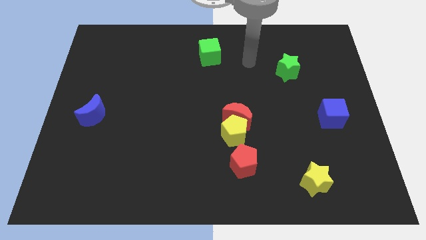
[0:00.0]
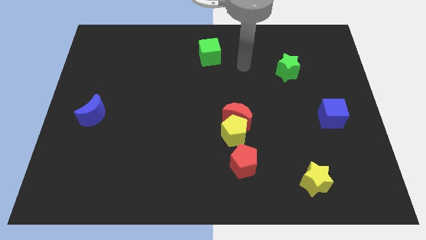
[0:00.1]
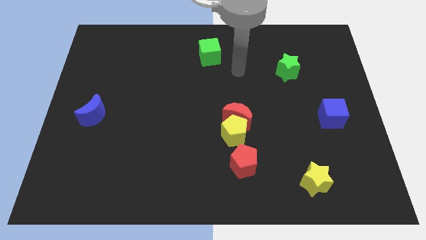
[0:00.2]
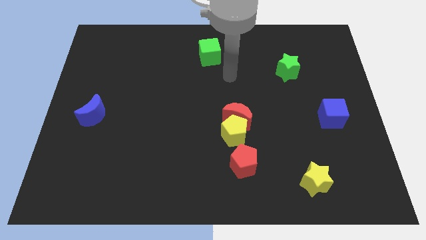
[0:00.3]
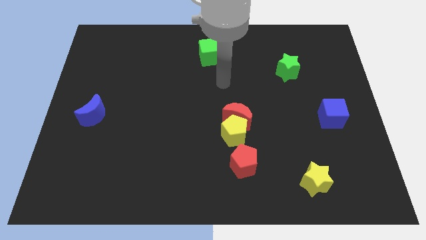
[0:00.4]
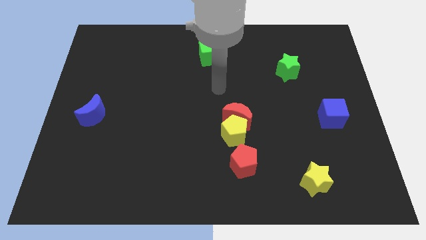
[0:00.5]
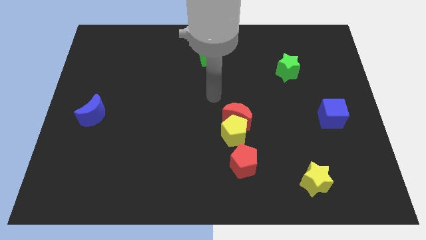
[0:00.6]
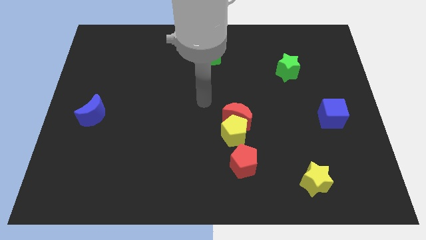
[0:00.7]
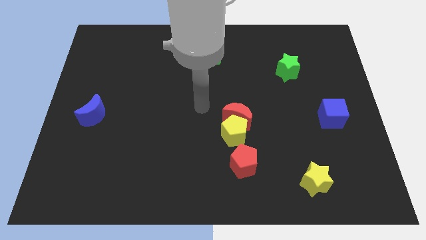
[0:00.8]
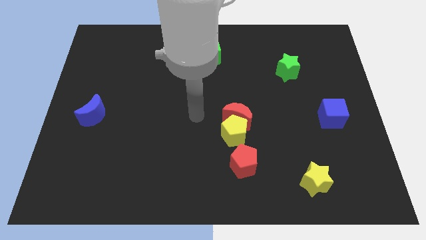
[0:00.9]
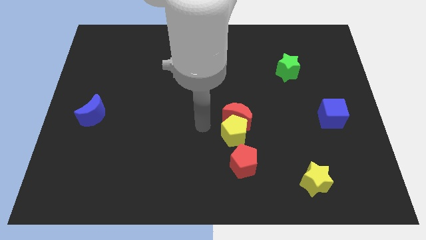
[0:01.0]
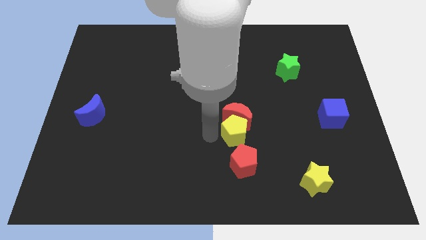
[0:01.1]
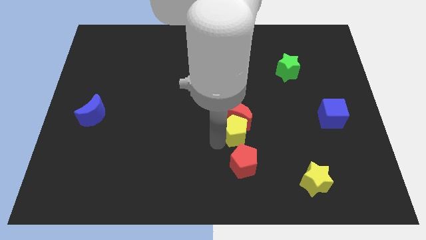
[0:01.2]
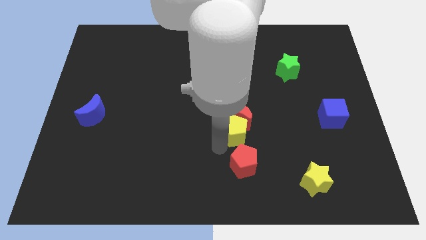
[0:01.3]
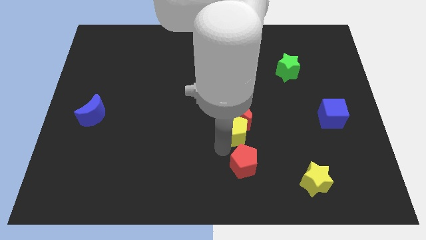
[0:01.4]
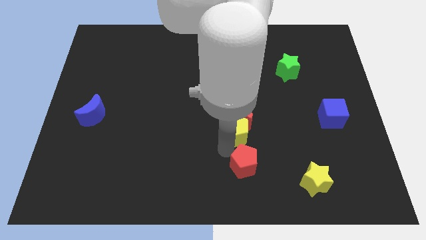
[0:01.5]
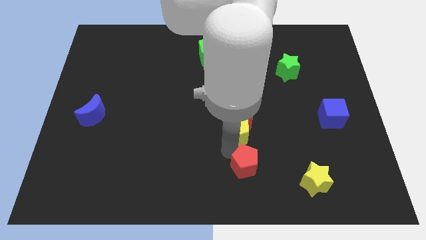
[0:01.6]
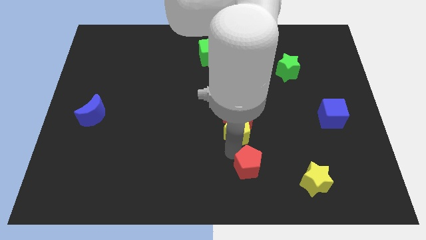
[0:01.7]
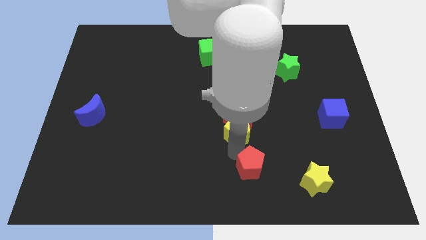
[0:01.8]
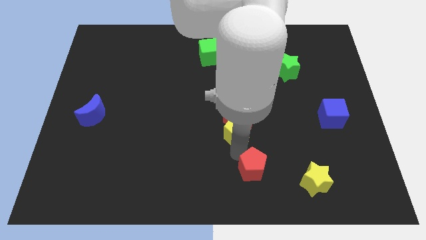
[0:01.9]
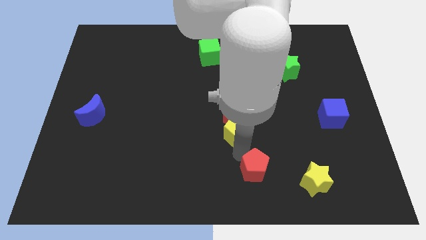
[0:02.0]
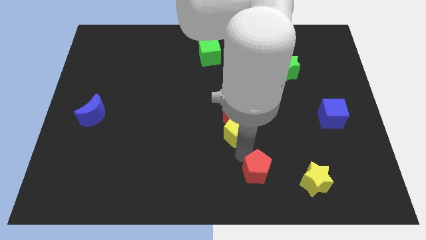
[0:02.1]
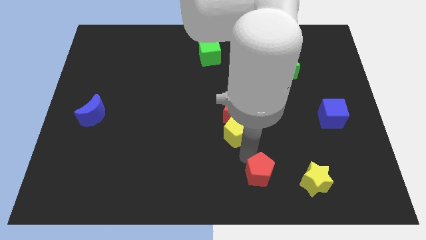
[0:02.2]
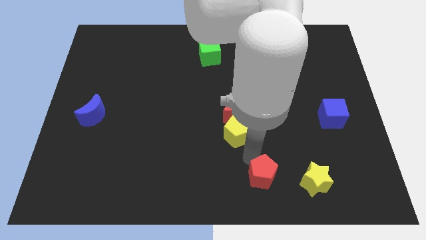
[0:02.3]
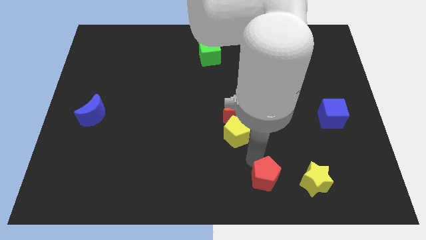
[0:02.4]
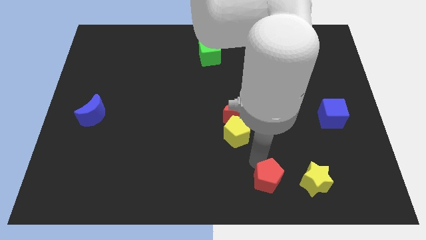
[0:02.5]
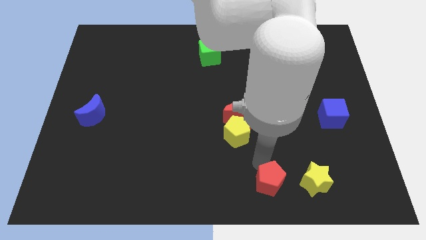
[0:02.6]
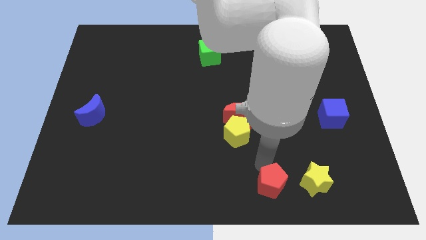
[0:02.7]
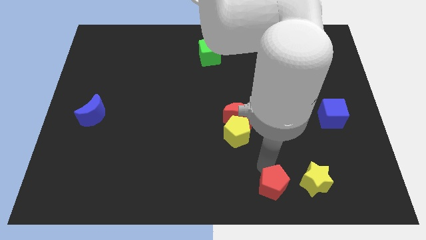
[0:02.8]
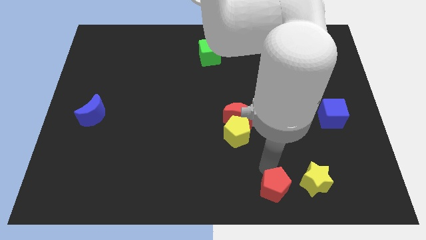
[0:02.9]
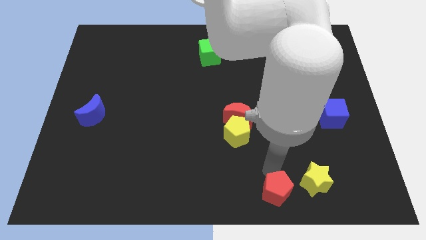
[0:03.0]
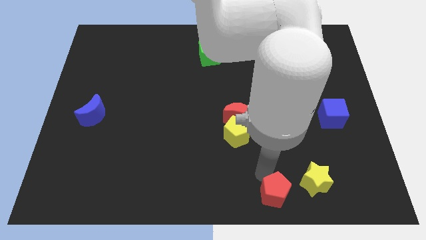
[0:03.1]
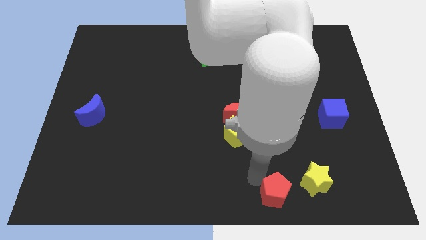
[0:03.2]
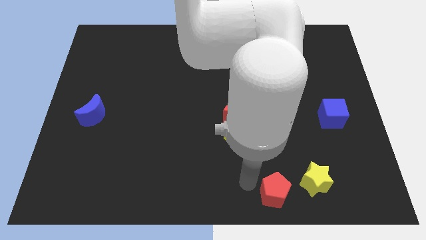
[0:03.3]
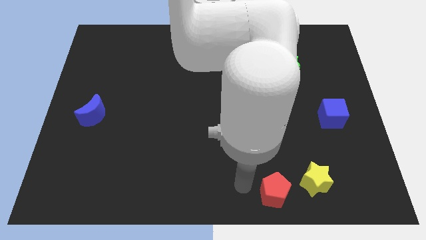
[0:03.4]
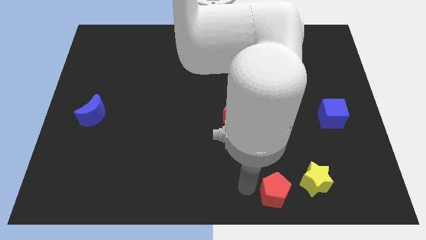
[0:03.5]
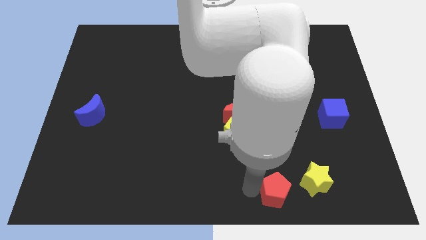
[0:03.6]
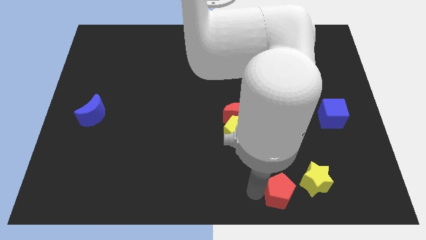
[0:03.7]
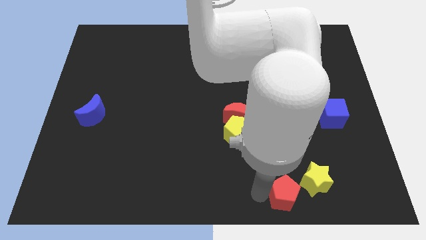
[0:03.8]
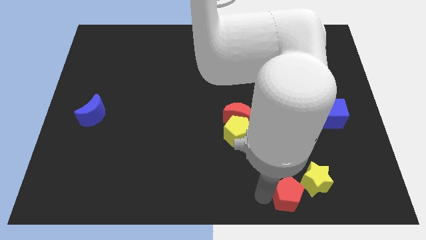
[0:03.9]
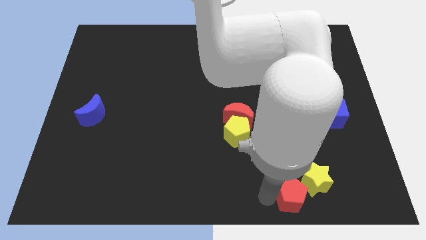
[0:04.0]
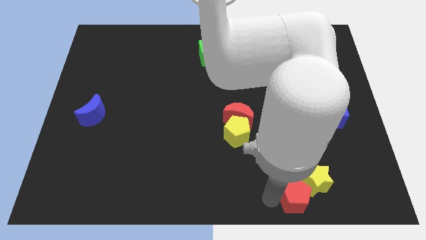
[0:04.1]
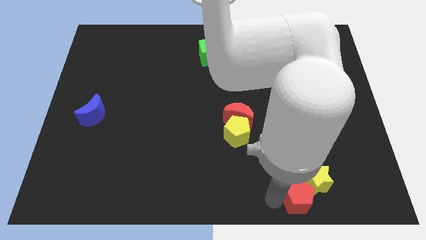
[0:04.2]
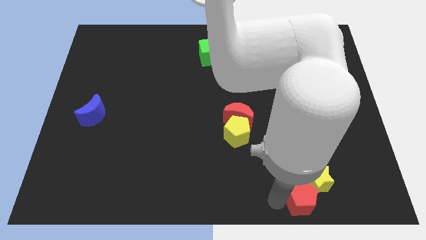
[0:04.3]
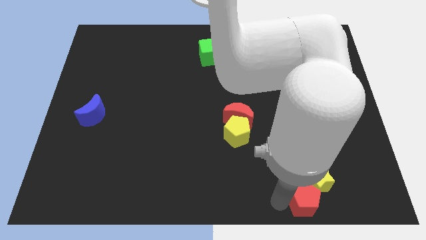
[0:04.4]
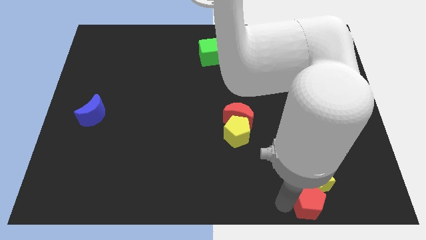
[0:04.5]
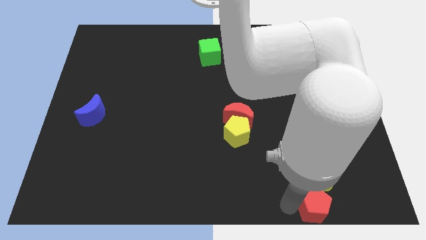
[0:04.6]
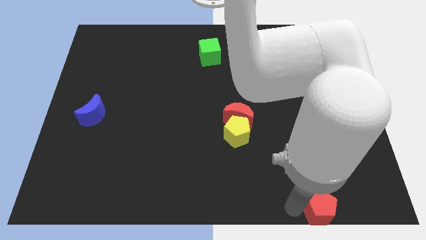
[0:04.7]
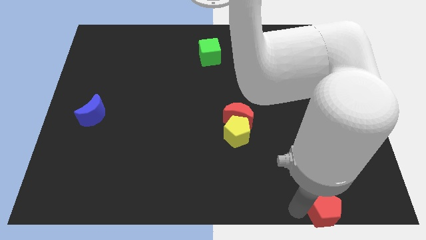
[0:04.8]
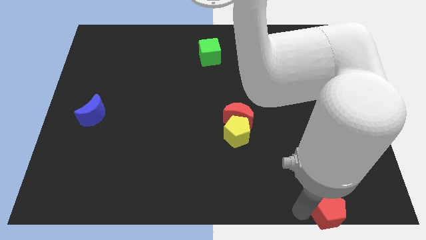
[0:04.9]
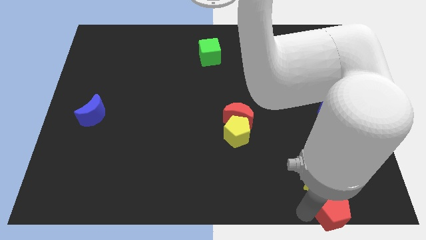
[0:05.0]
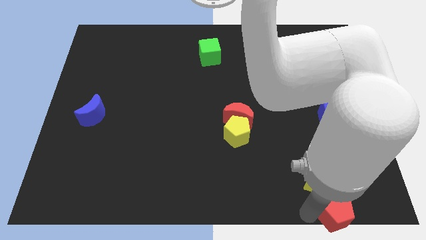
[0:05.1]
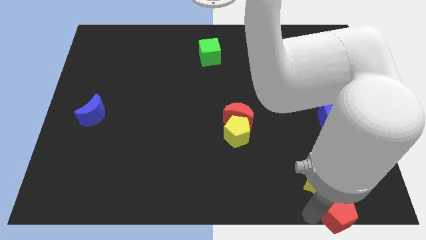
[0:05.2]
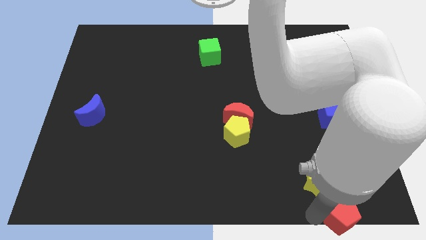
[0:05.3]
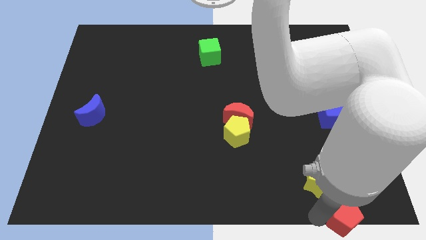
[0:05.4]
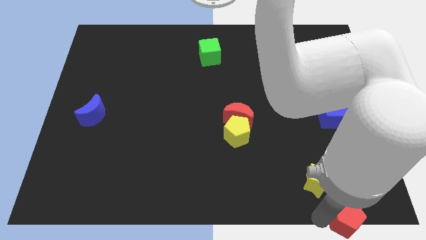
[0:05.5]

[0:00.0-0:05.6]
push the red pentagon to the lower right corner

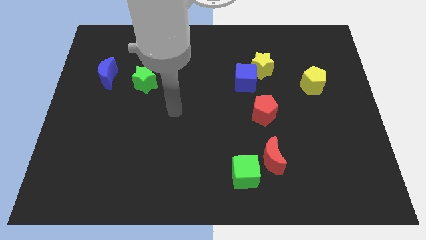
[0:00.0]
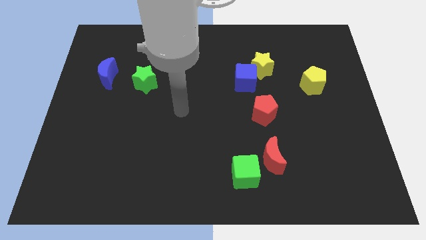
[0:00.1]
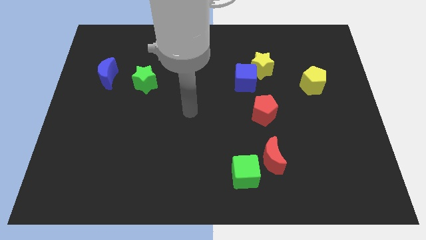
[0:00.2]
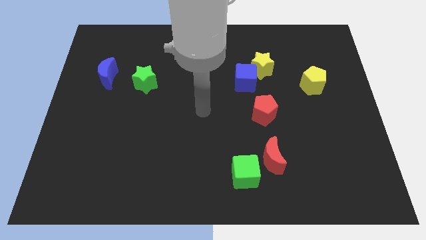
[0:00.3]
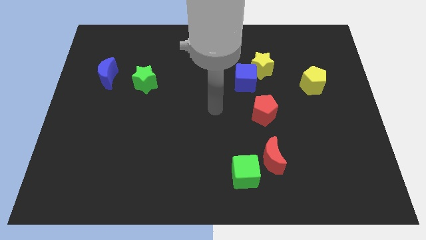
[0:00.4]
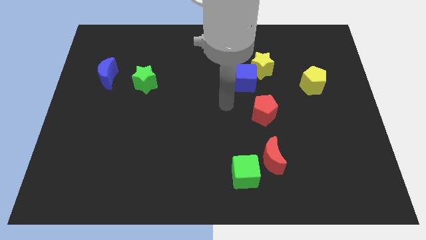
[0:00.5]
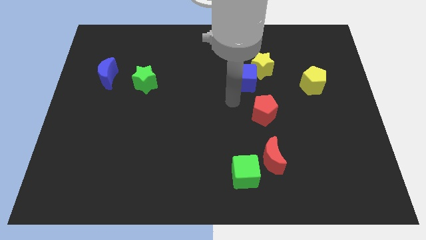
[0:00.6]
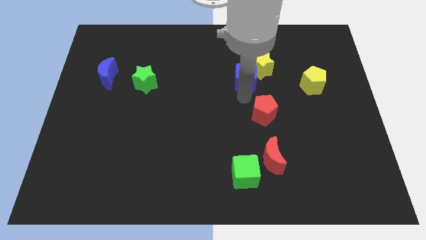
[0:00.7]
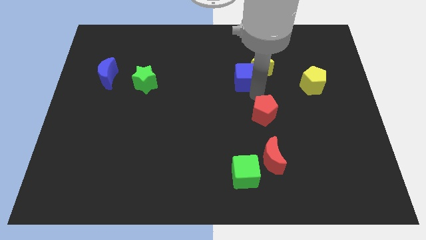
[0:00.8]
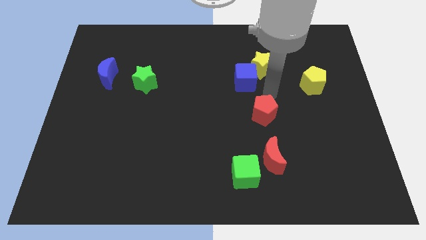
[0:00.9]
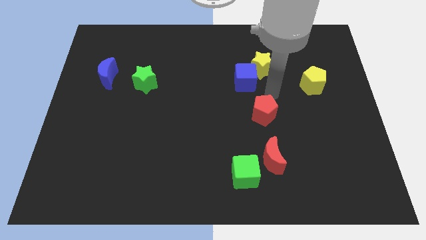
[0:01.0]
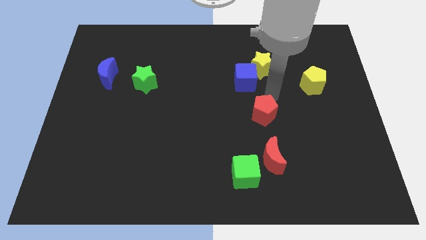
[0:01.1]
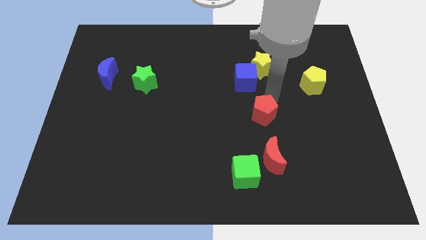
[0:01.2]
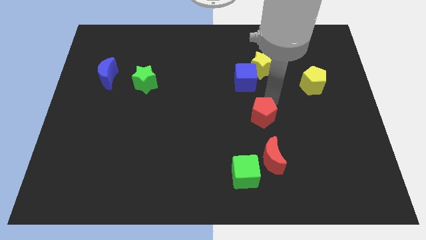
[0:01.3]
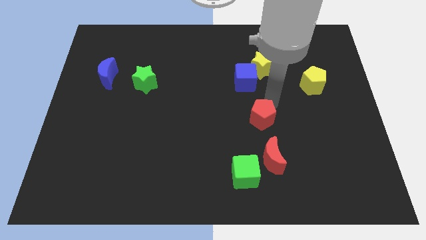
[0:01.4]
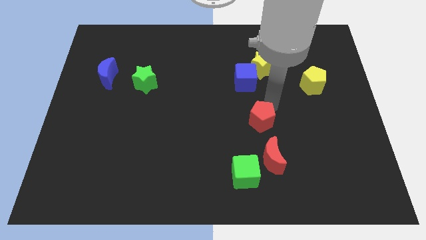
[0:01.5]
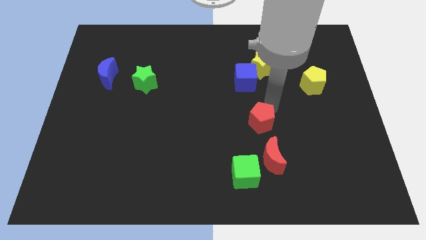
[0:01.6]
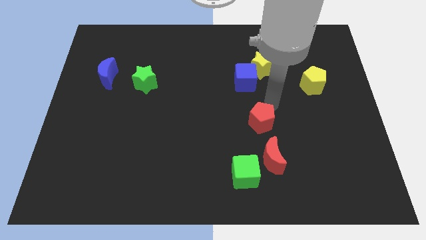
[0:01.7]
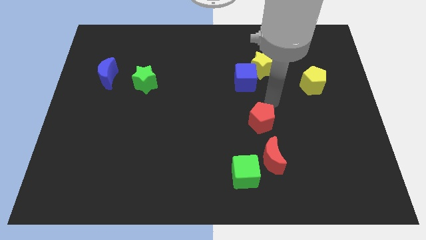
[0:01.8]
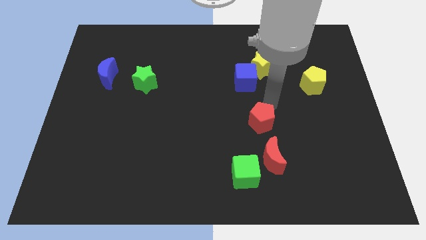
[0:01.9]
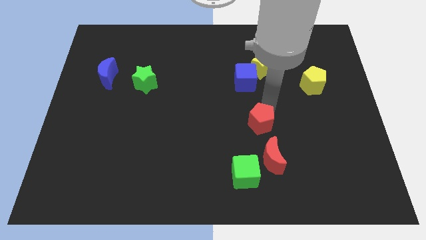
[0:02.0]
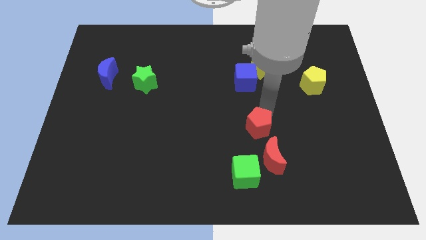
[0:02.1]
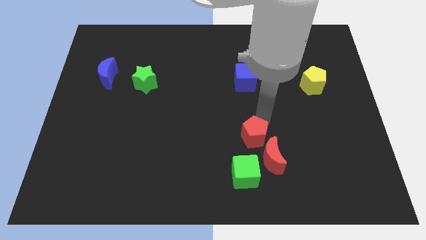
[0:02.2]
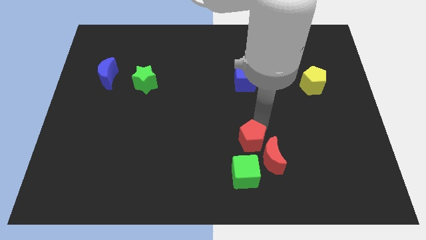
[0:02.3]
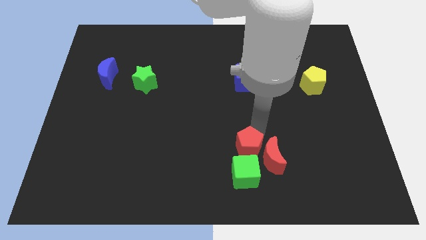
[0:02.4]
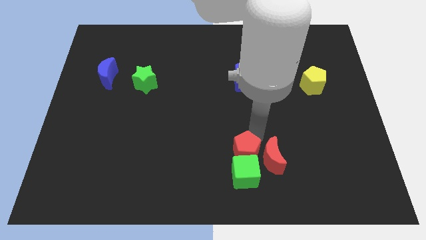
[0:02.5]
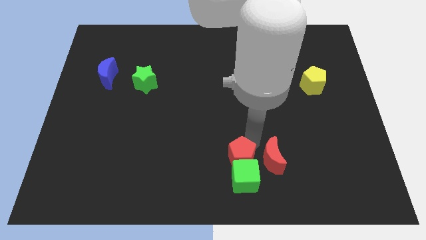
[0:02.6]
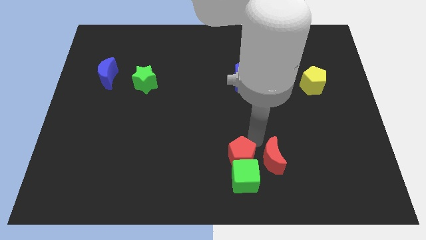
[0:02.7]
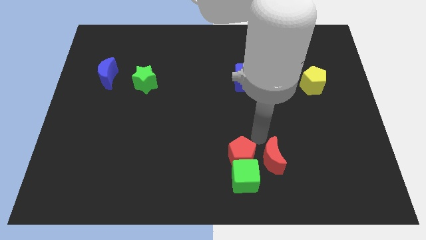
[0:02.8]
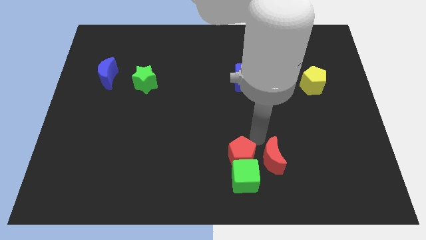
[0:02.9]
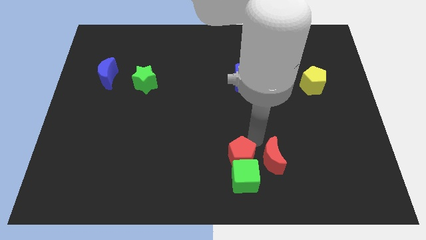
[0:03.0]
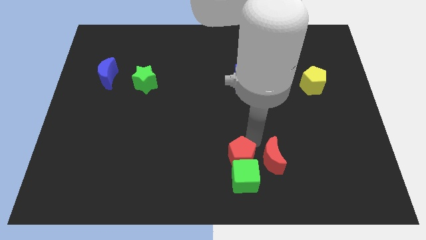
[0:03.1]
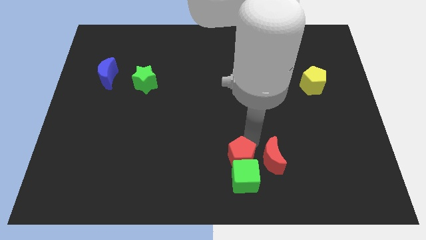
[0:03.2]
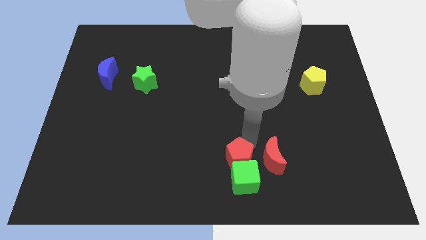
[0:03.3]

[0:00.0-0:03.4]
put the red pentagon to the bottom side
